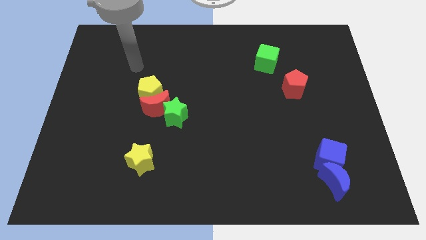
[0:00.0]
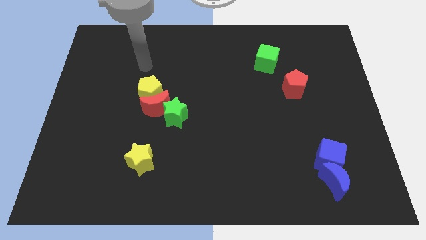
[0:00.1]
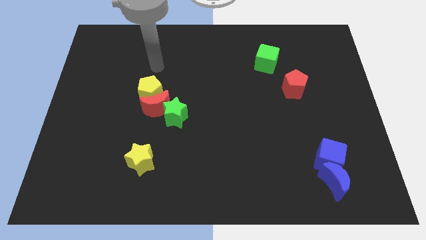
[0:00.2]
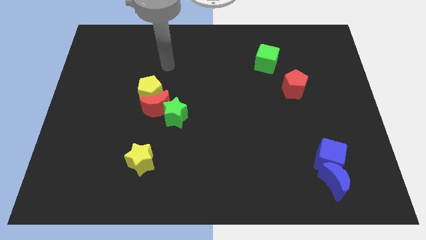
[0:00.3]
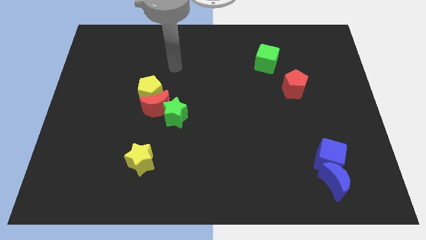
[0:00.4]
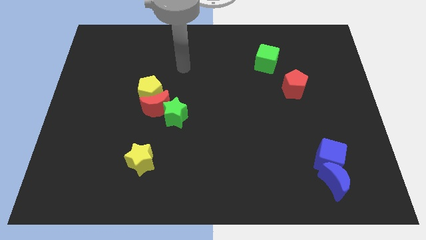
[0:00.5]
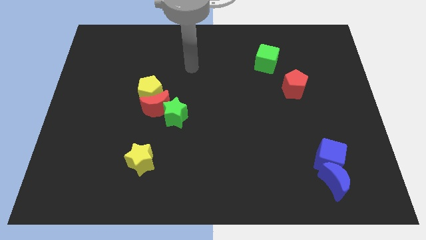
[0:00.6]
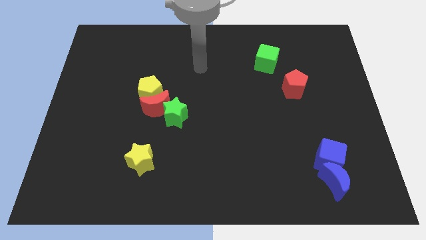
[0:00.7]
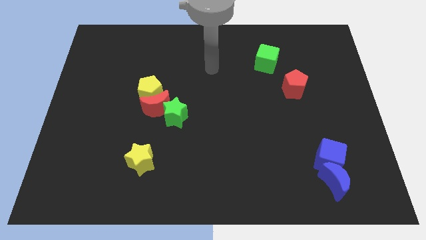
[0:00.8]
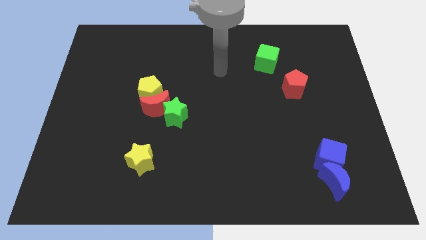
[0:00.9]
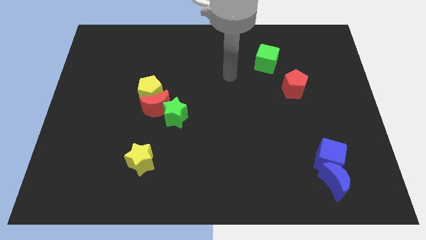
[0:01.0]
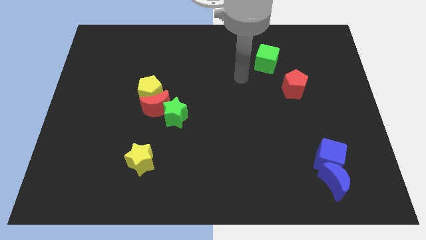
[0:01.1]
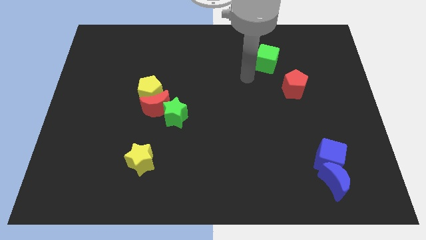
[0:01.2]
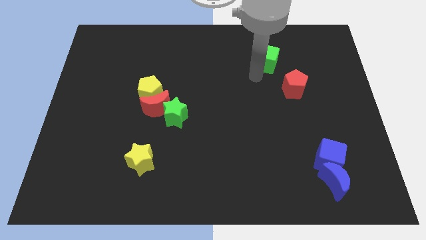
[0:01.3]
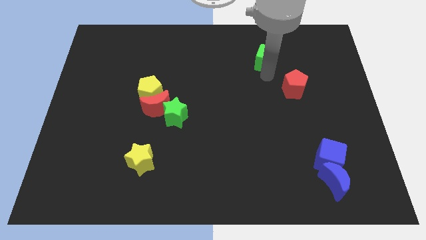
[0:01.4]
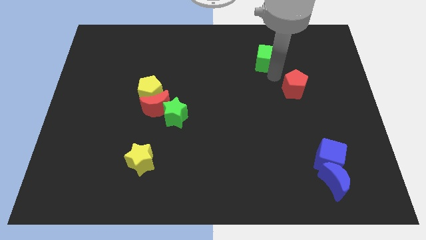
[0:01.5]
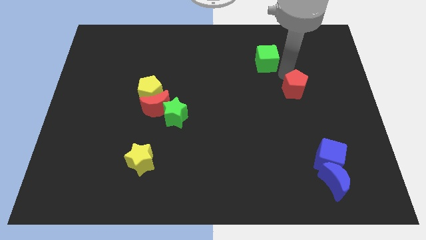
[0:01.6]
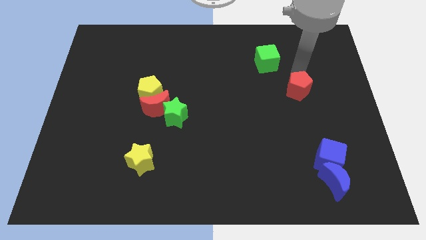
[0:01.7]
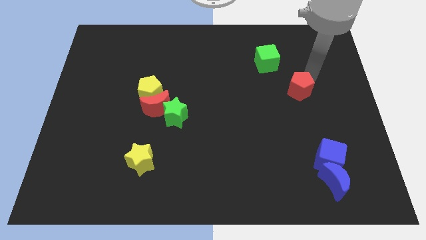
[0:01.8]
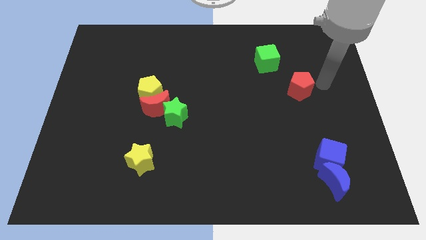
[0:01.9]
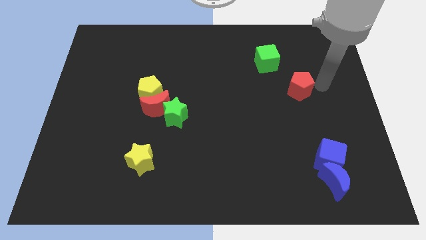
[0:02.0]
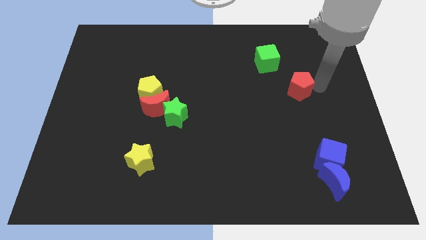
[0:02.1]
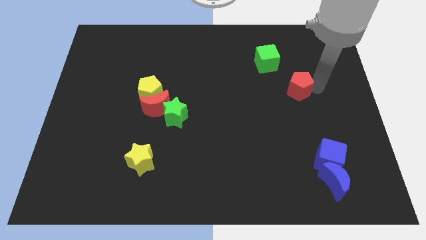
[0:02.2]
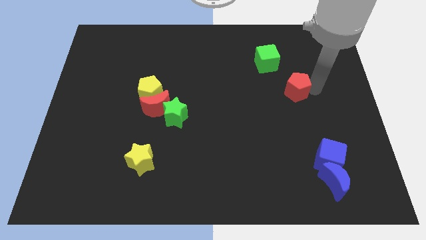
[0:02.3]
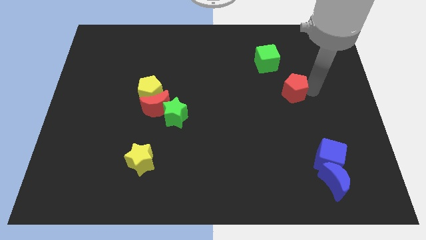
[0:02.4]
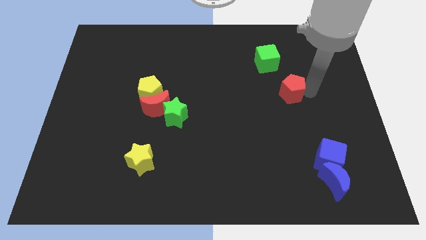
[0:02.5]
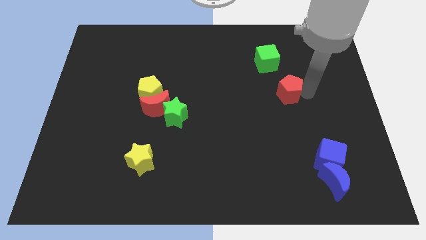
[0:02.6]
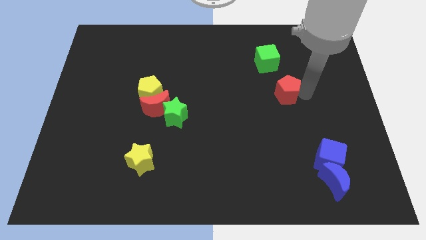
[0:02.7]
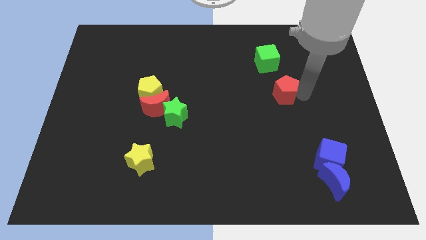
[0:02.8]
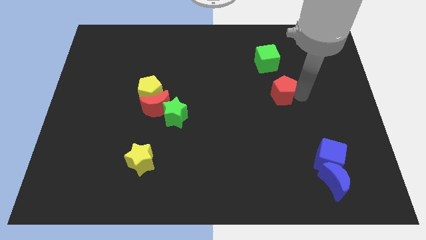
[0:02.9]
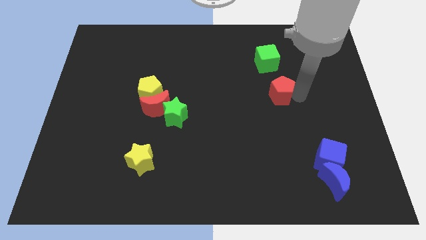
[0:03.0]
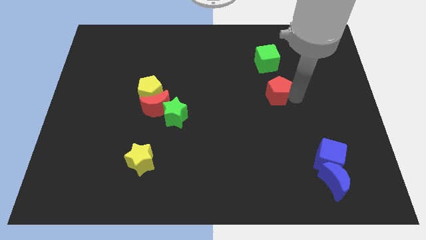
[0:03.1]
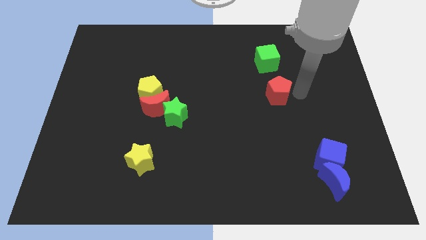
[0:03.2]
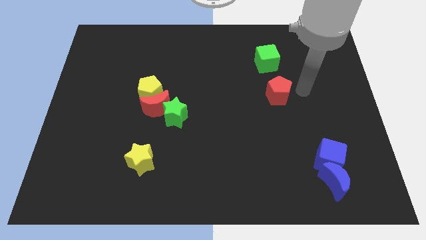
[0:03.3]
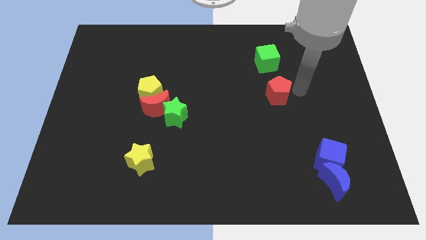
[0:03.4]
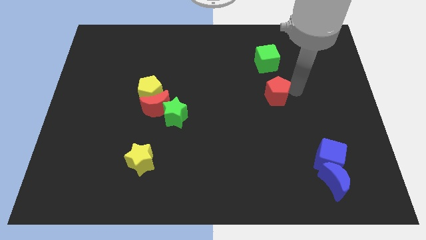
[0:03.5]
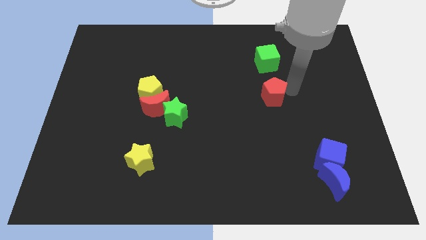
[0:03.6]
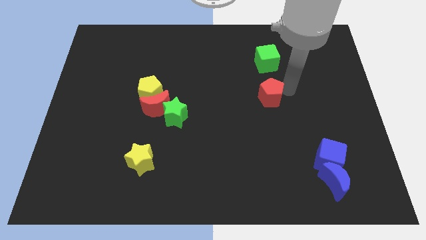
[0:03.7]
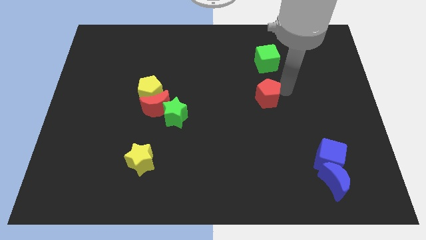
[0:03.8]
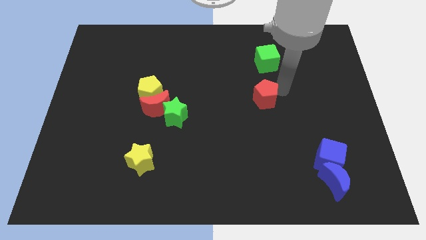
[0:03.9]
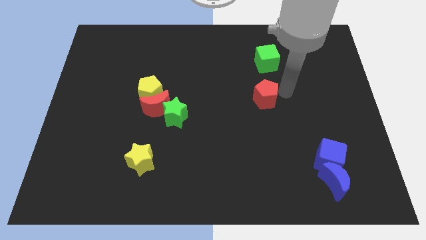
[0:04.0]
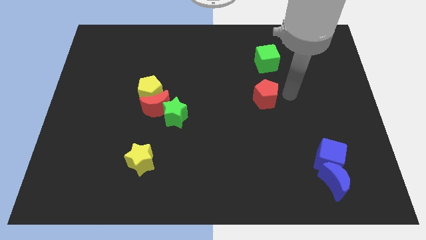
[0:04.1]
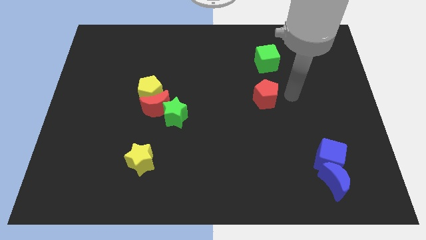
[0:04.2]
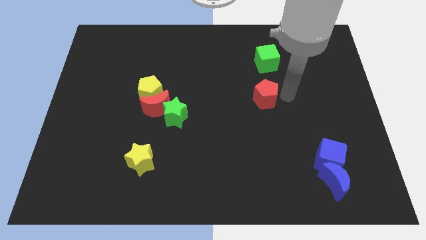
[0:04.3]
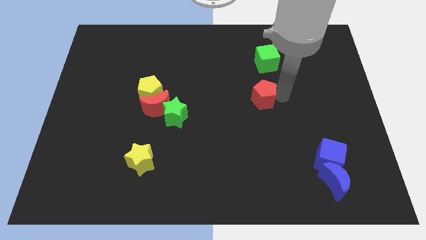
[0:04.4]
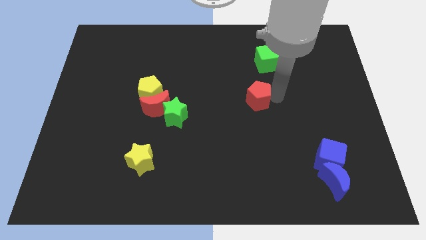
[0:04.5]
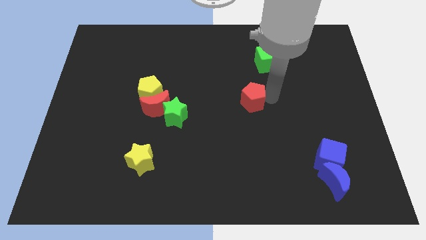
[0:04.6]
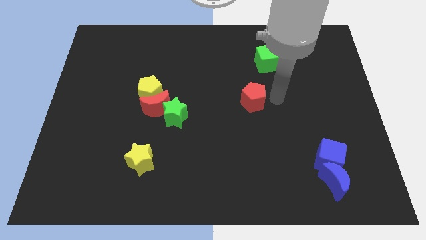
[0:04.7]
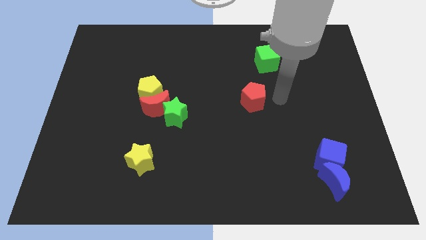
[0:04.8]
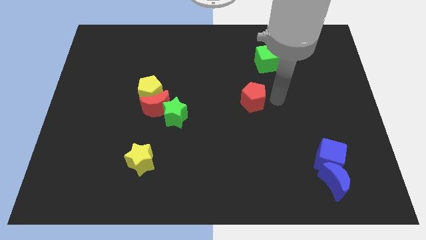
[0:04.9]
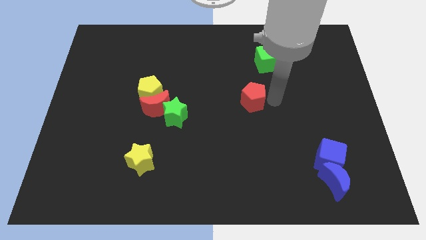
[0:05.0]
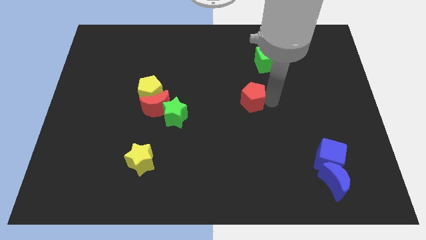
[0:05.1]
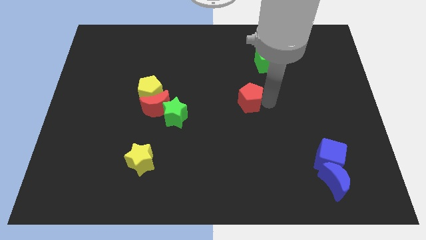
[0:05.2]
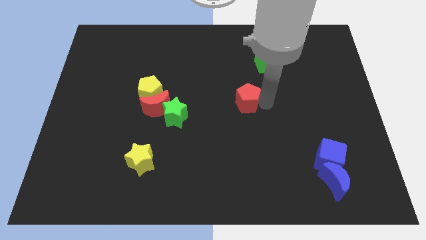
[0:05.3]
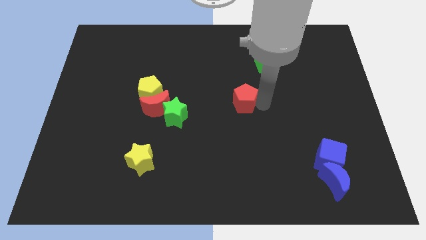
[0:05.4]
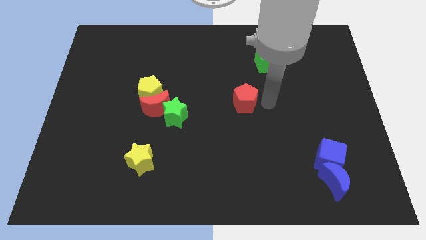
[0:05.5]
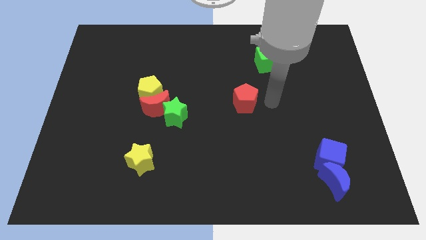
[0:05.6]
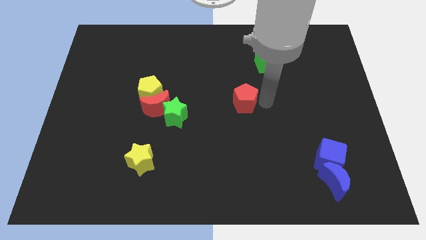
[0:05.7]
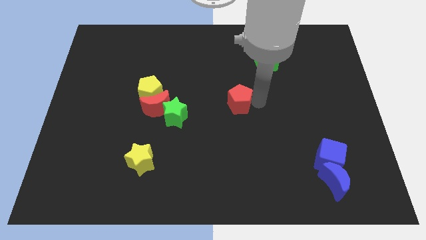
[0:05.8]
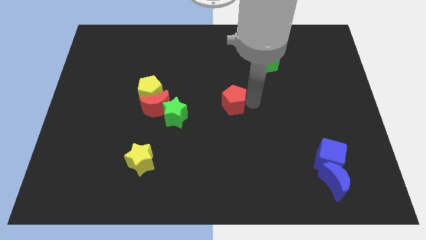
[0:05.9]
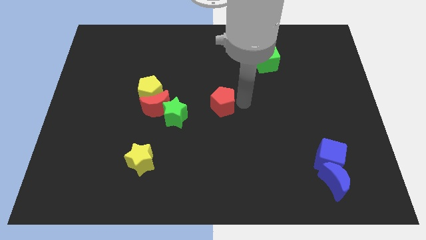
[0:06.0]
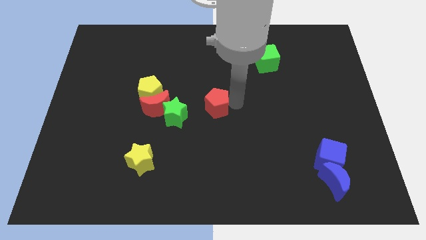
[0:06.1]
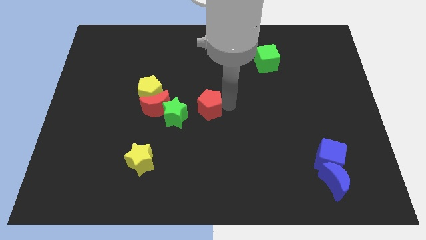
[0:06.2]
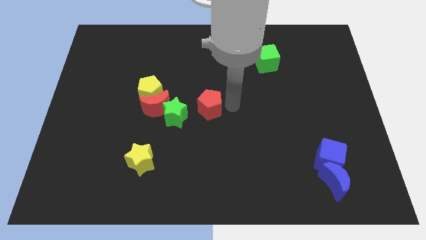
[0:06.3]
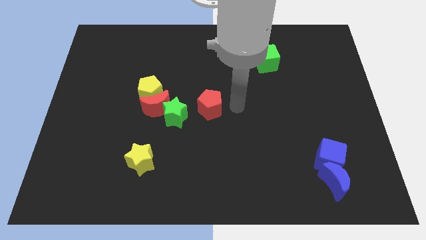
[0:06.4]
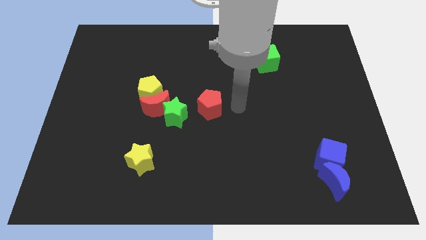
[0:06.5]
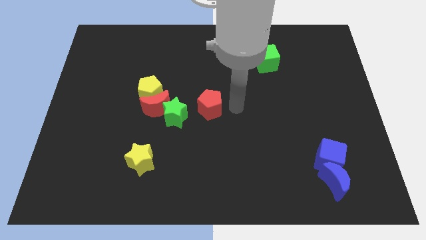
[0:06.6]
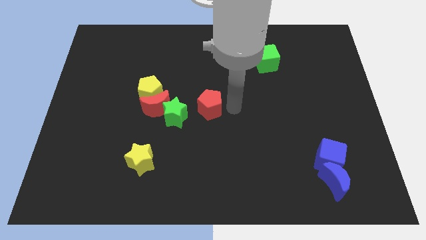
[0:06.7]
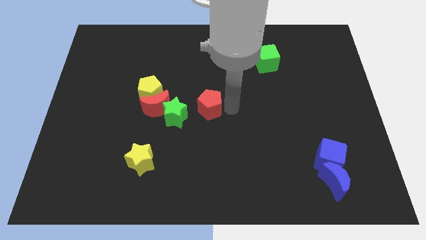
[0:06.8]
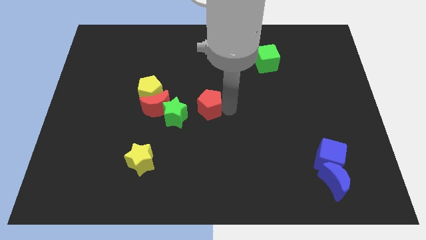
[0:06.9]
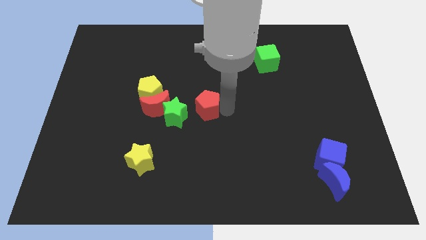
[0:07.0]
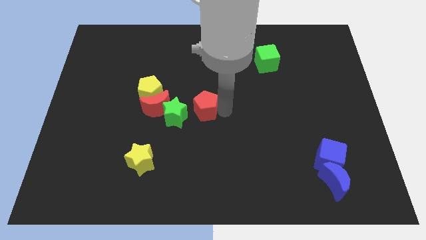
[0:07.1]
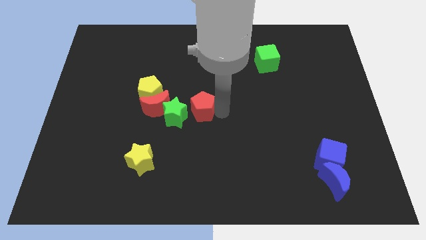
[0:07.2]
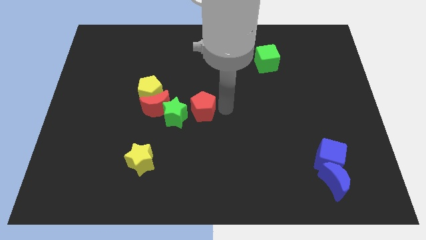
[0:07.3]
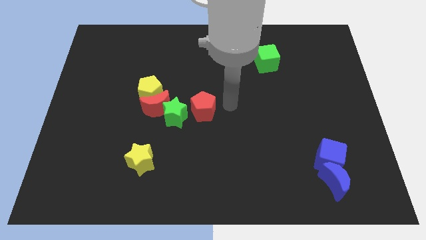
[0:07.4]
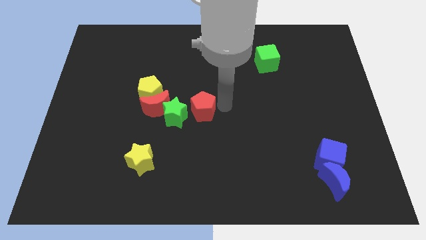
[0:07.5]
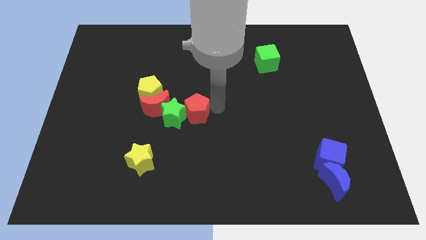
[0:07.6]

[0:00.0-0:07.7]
put the red pentagon to the green star
